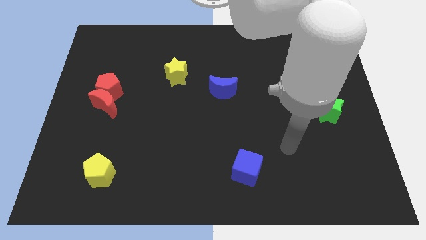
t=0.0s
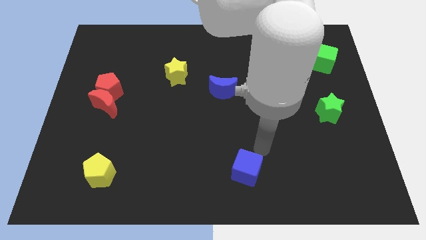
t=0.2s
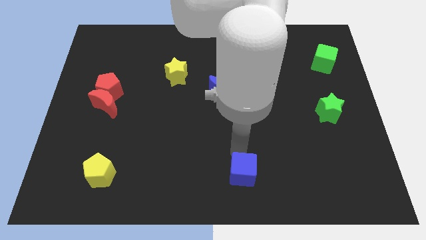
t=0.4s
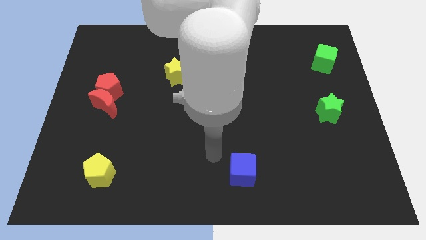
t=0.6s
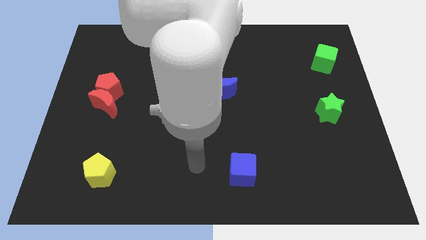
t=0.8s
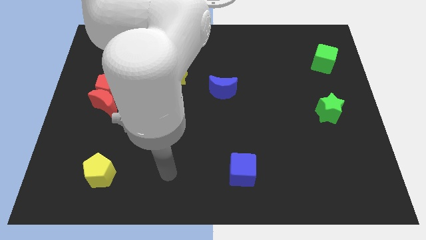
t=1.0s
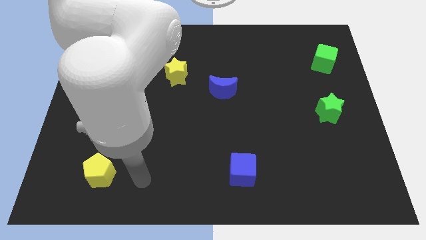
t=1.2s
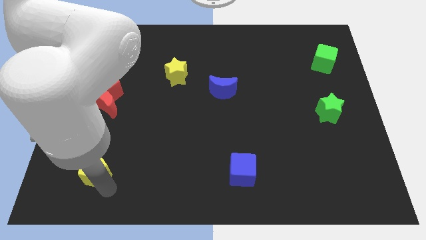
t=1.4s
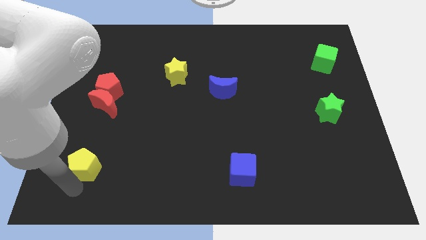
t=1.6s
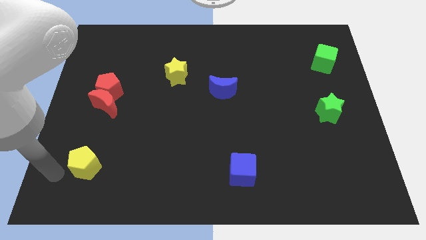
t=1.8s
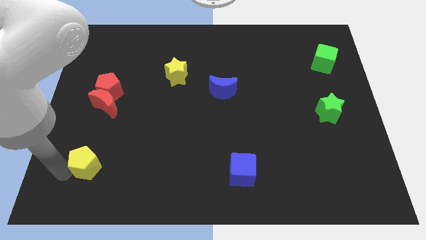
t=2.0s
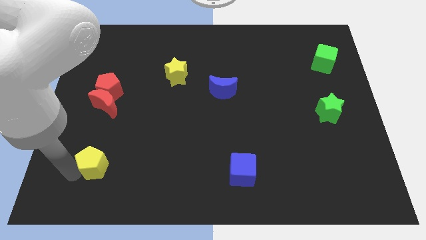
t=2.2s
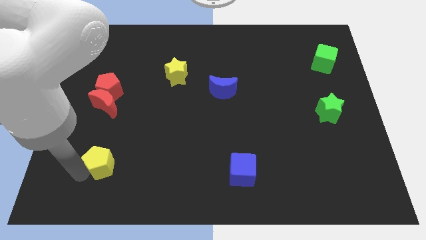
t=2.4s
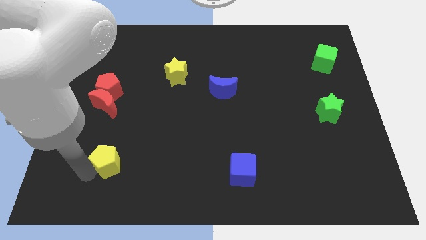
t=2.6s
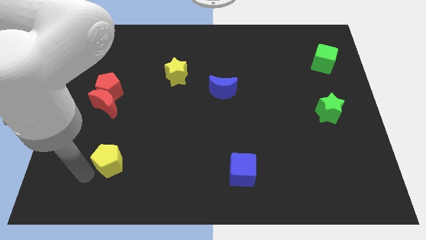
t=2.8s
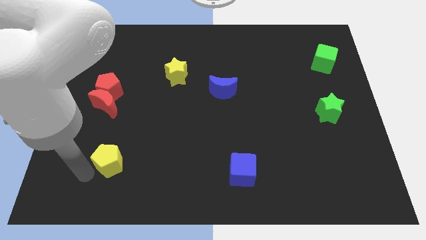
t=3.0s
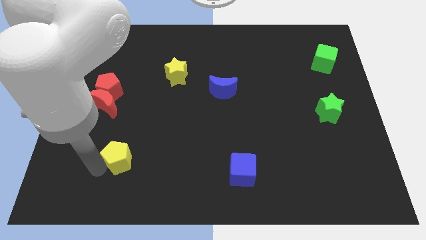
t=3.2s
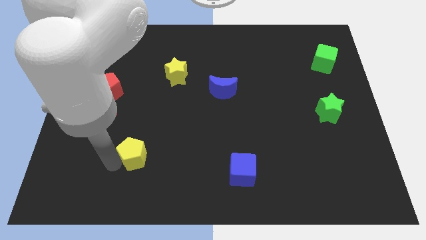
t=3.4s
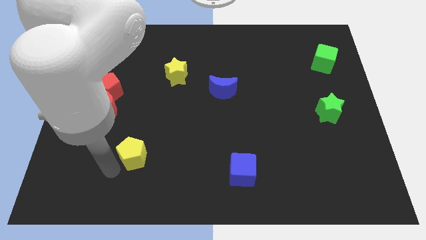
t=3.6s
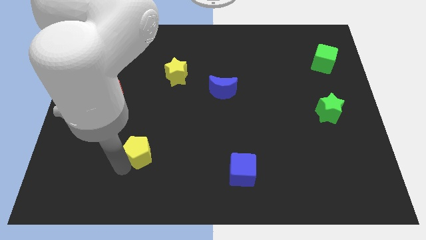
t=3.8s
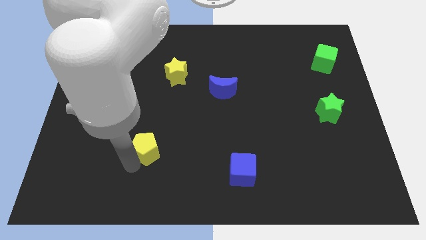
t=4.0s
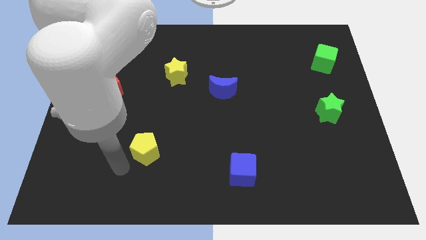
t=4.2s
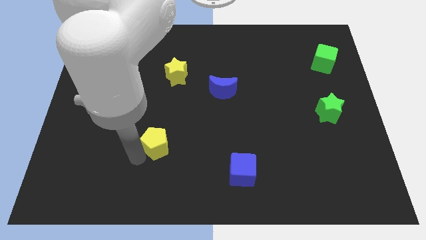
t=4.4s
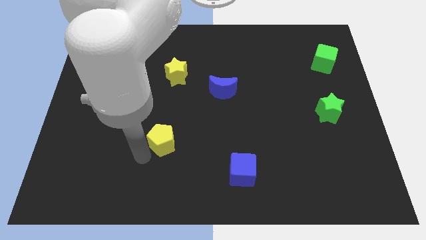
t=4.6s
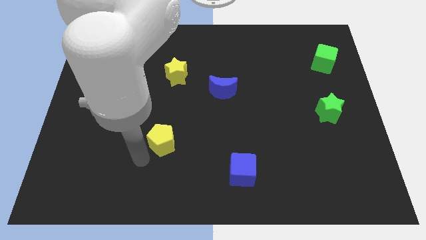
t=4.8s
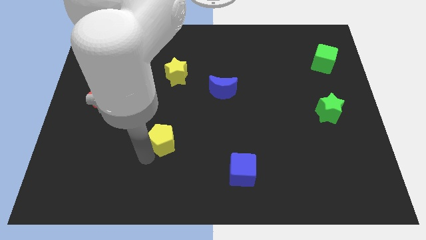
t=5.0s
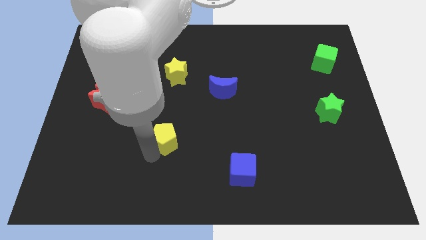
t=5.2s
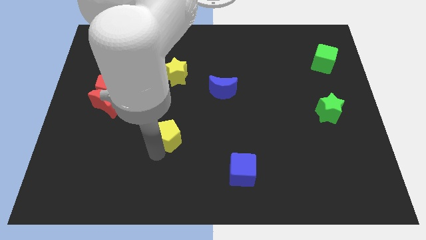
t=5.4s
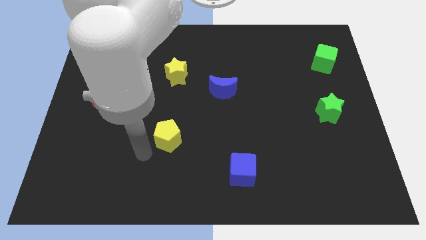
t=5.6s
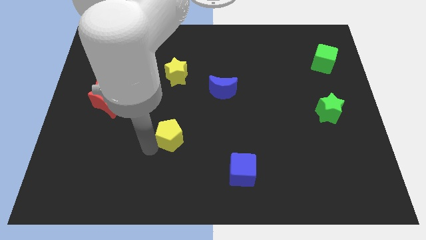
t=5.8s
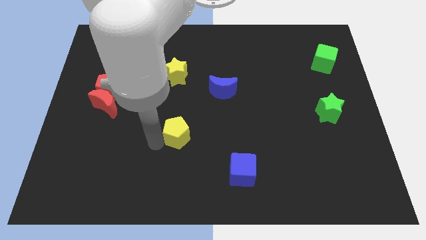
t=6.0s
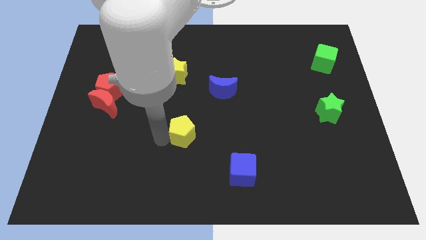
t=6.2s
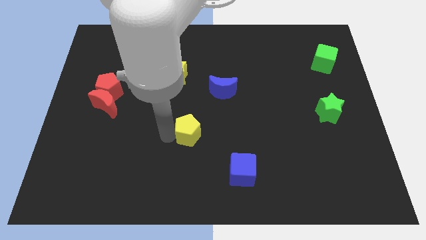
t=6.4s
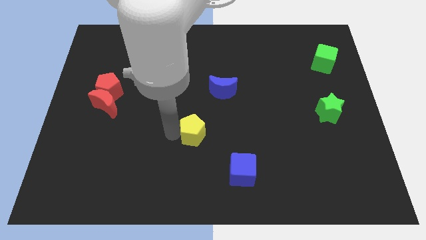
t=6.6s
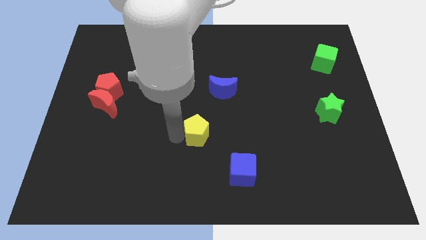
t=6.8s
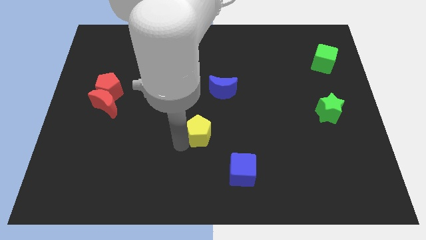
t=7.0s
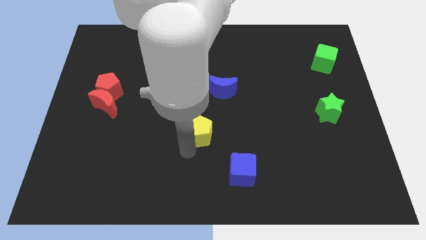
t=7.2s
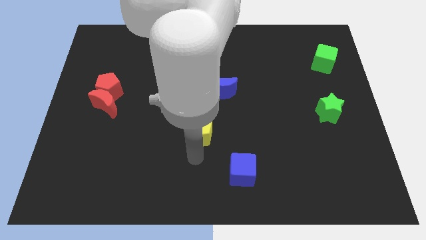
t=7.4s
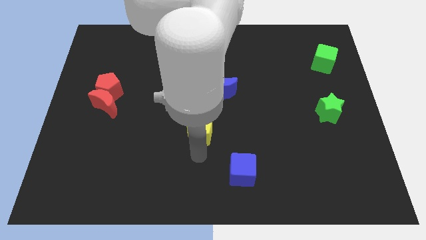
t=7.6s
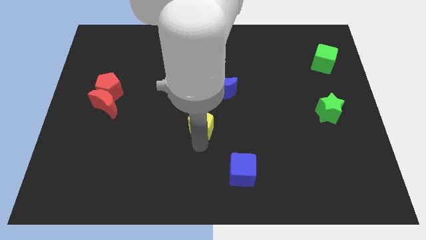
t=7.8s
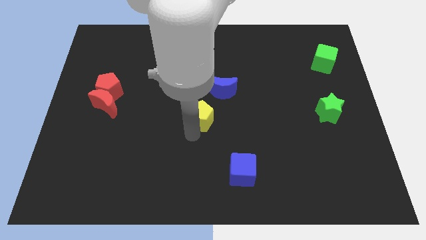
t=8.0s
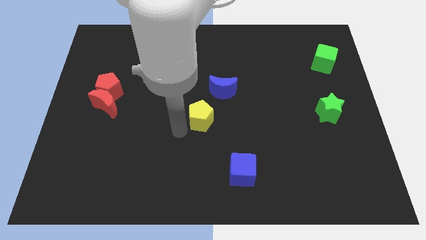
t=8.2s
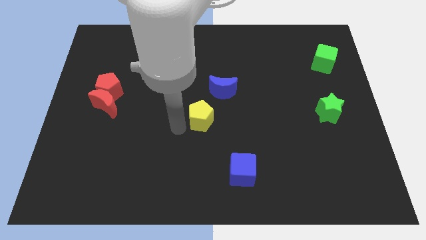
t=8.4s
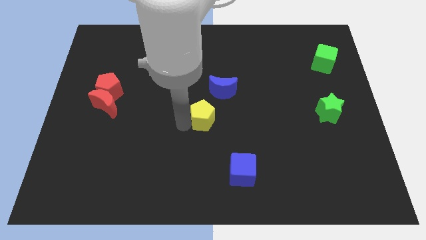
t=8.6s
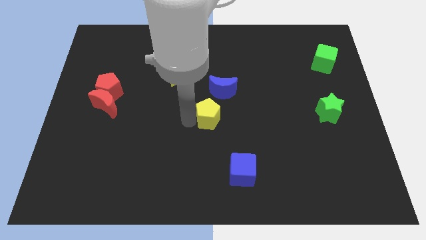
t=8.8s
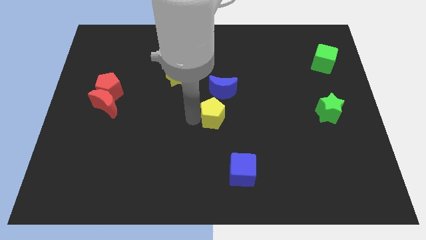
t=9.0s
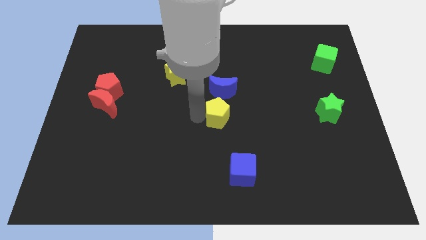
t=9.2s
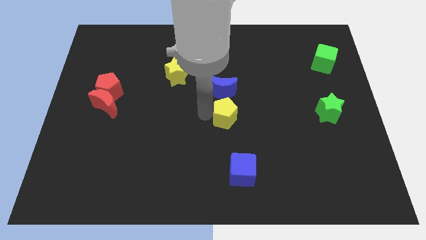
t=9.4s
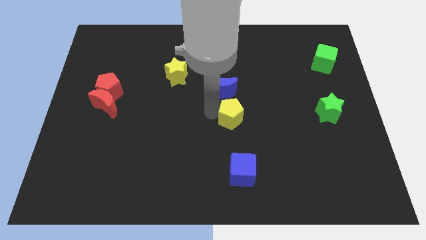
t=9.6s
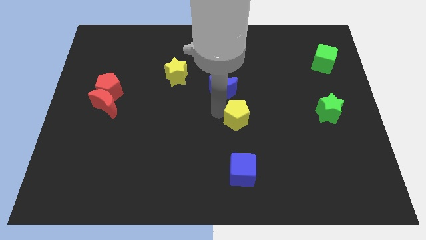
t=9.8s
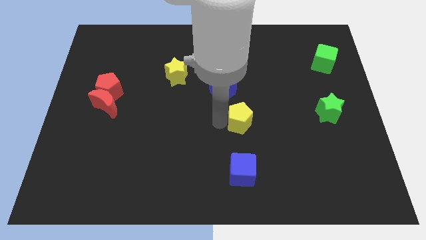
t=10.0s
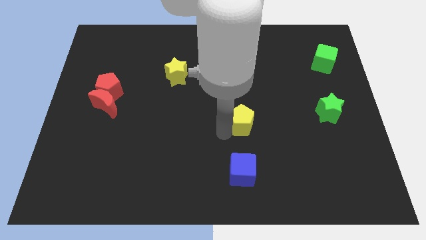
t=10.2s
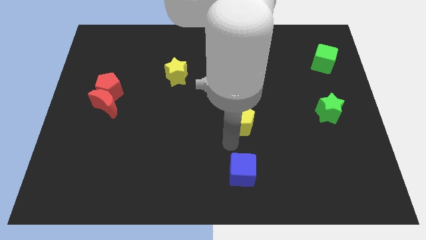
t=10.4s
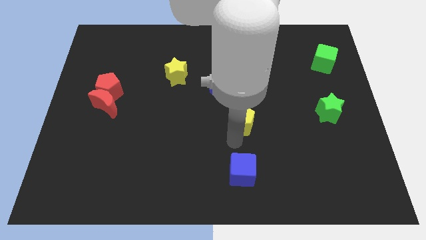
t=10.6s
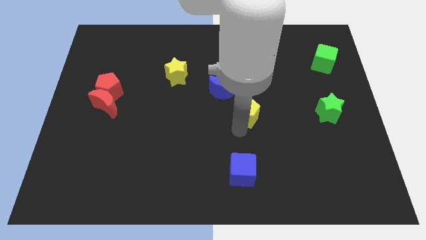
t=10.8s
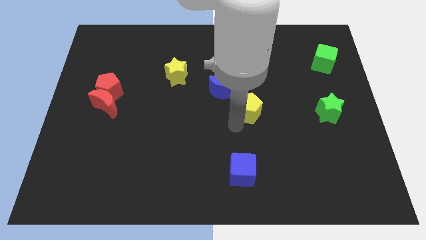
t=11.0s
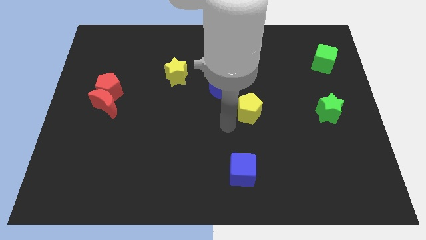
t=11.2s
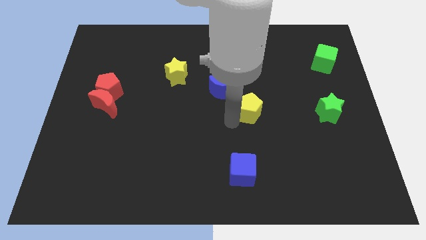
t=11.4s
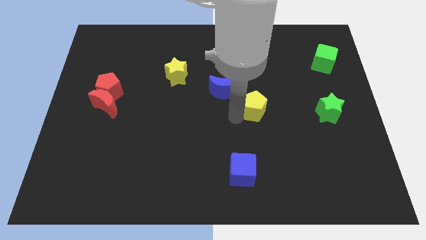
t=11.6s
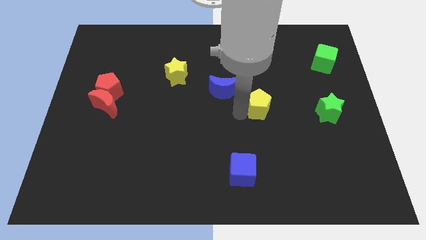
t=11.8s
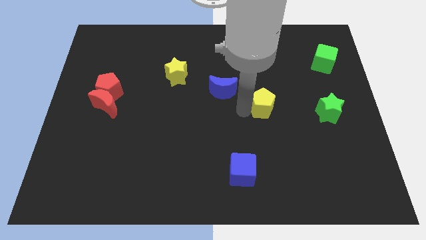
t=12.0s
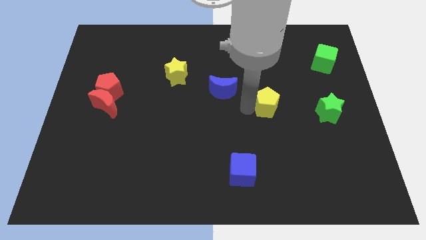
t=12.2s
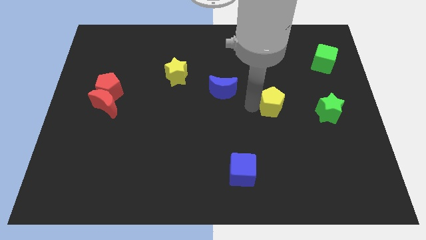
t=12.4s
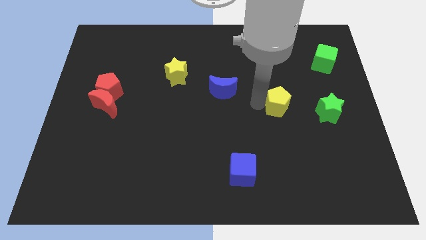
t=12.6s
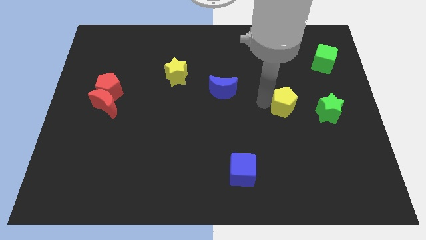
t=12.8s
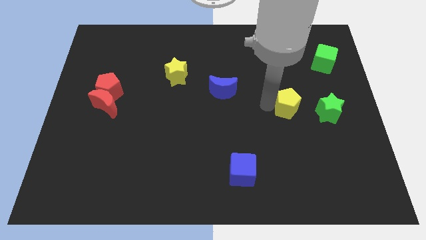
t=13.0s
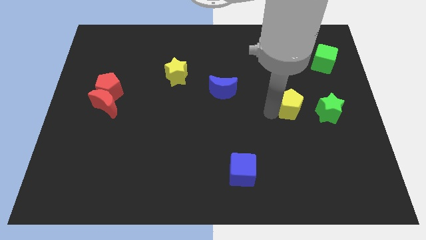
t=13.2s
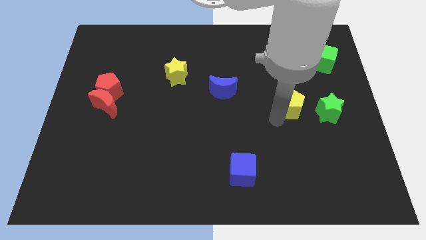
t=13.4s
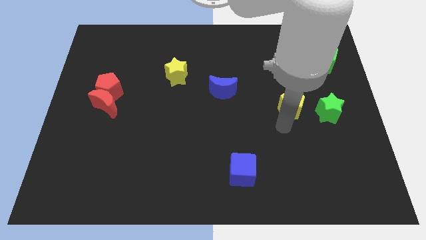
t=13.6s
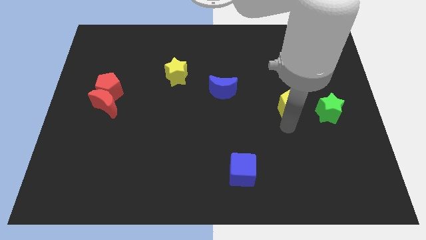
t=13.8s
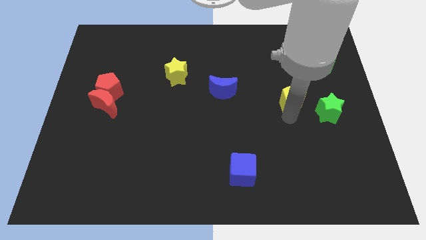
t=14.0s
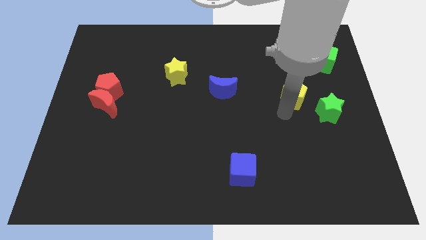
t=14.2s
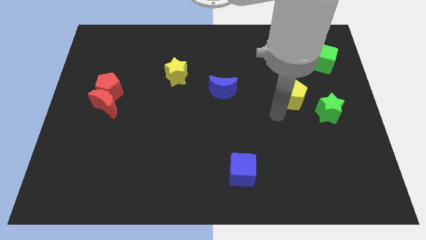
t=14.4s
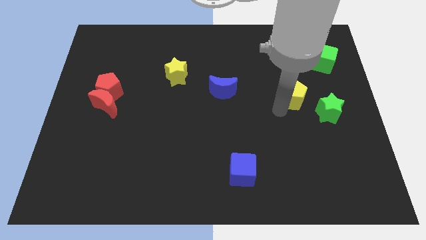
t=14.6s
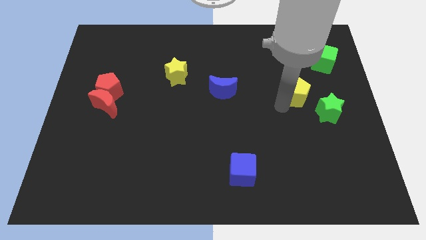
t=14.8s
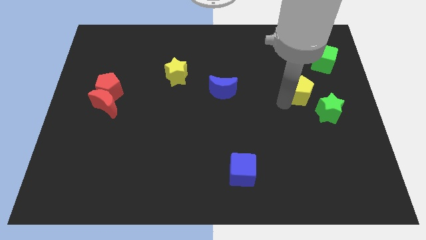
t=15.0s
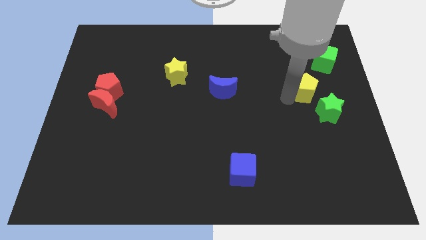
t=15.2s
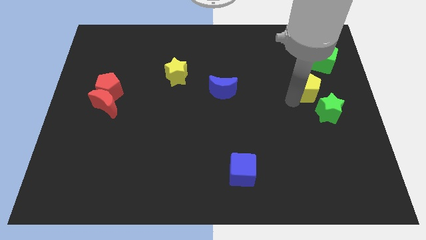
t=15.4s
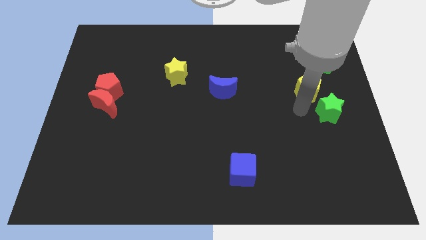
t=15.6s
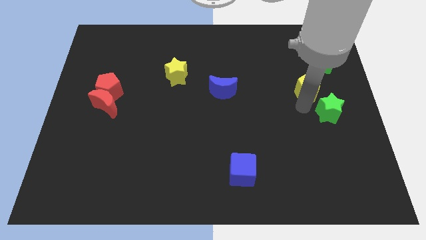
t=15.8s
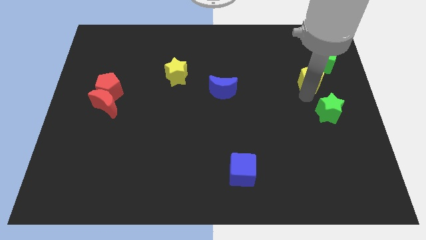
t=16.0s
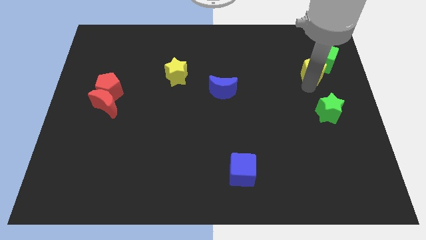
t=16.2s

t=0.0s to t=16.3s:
move the yellow pentagon to the green cube
